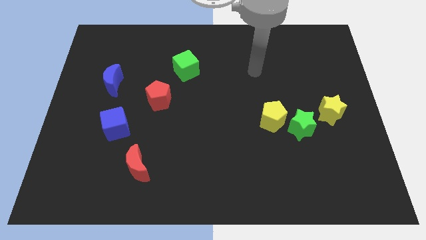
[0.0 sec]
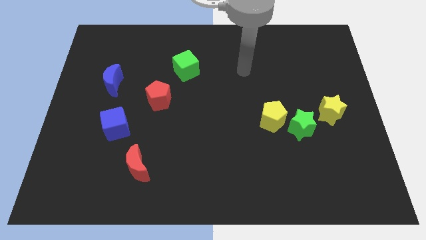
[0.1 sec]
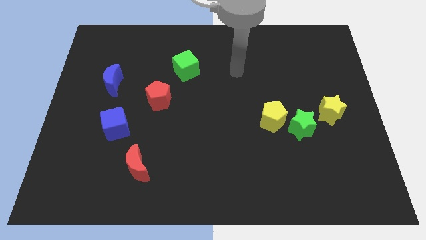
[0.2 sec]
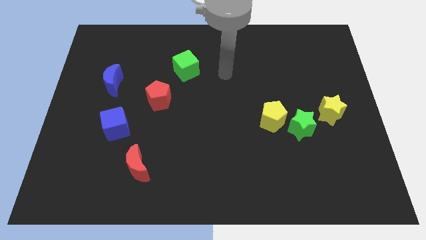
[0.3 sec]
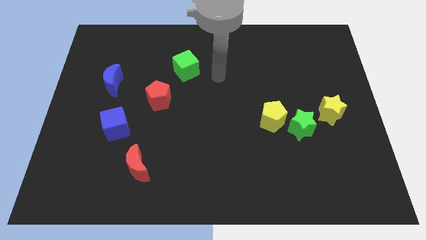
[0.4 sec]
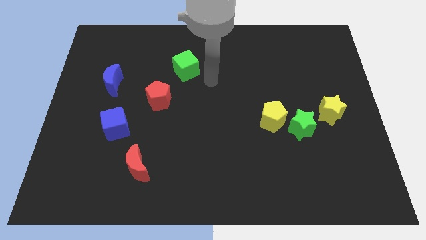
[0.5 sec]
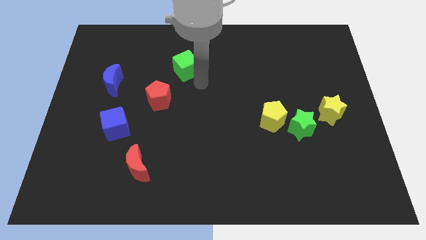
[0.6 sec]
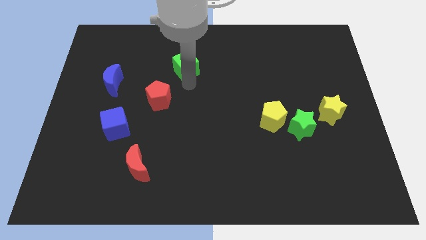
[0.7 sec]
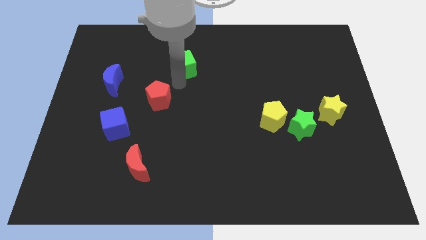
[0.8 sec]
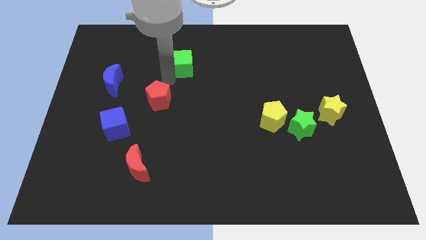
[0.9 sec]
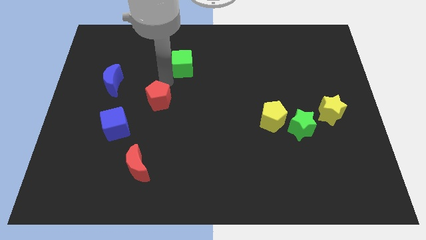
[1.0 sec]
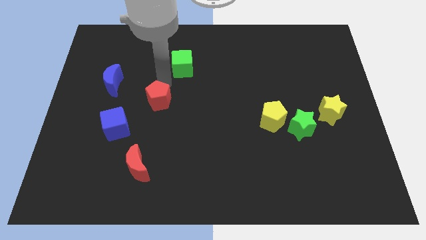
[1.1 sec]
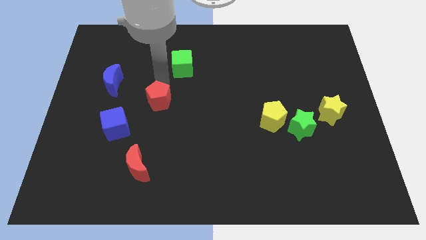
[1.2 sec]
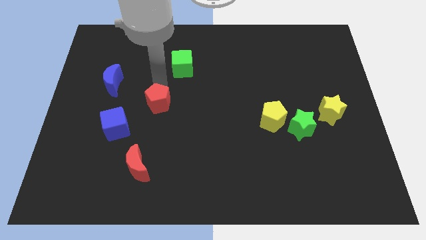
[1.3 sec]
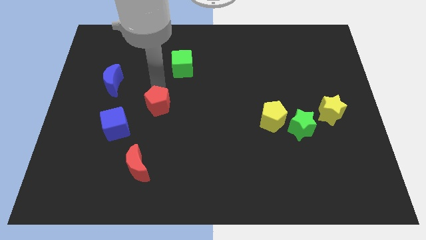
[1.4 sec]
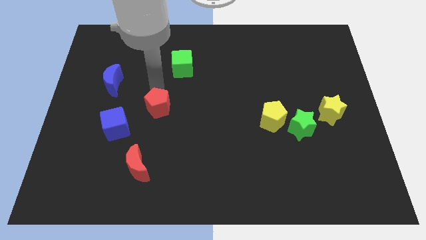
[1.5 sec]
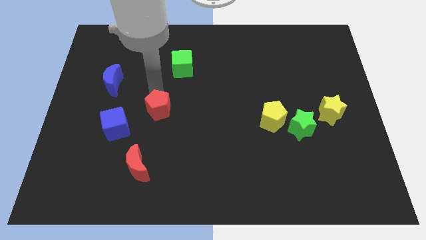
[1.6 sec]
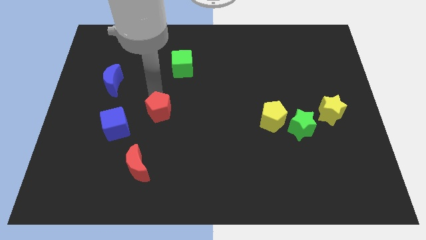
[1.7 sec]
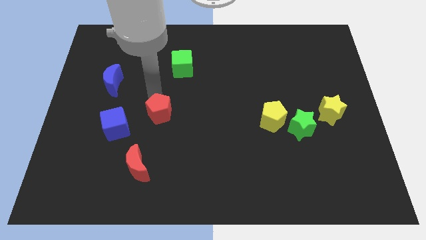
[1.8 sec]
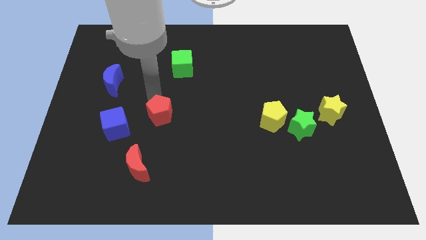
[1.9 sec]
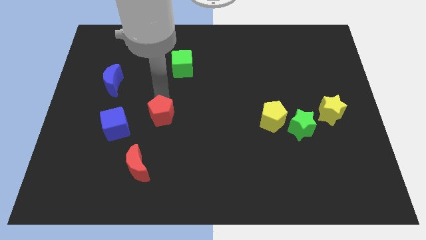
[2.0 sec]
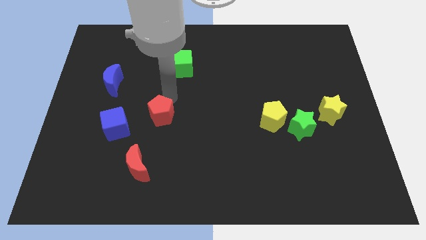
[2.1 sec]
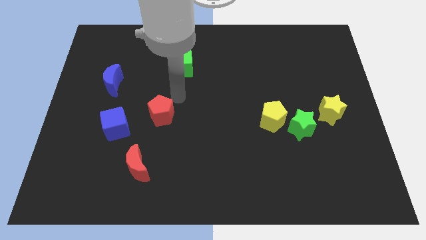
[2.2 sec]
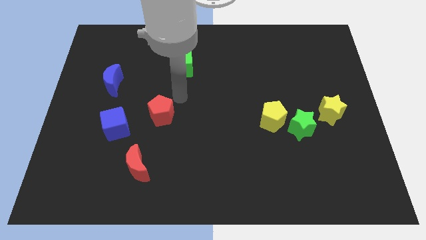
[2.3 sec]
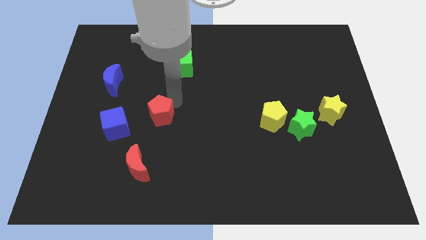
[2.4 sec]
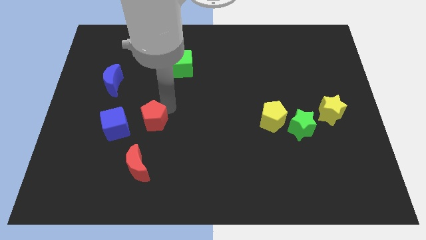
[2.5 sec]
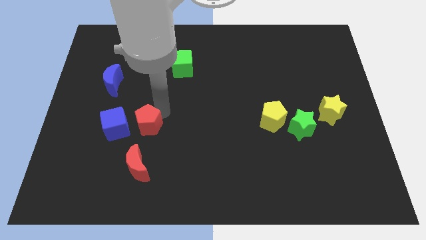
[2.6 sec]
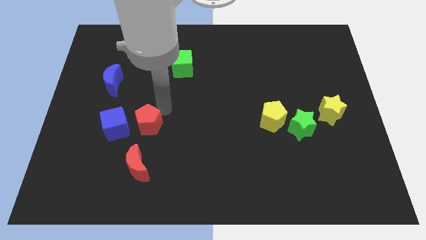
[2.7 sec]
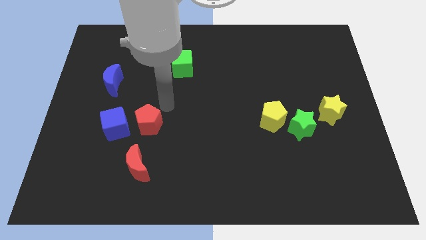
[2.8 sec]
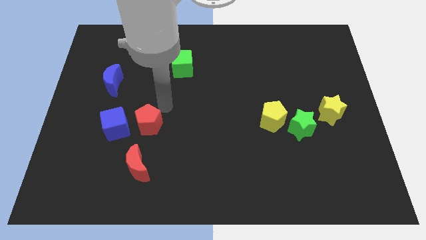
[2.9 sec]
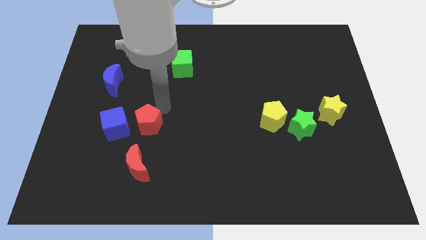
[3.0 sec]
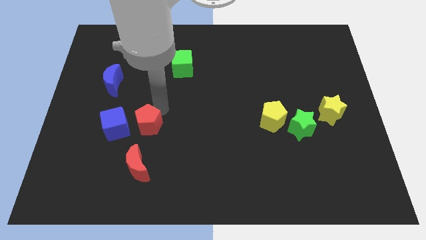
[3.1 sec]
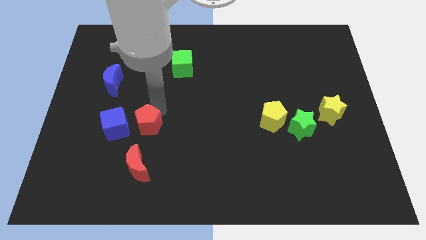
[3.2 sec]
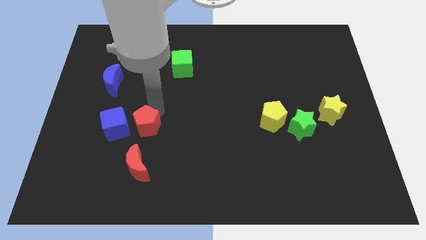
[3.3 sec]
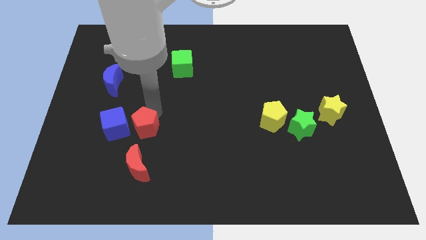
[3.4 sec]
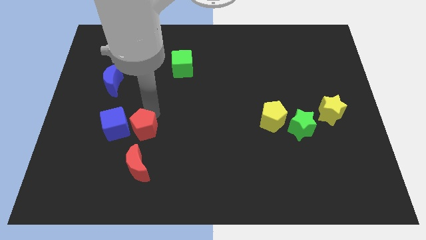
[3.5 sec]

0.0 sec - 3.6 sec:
push the red pentagon down and then left a little

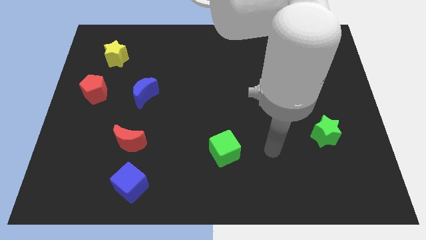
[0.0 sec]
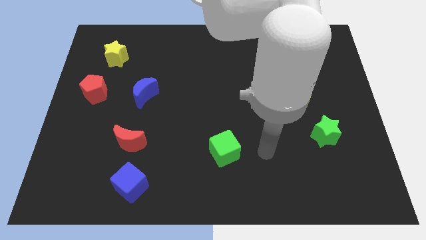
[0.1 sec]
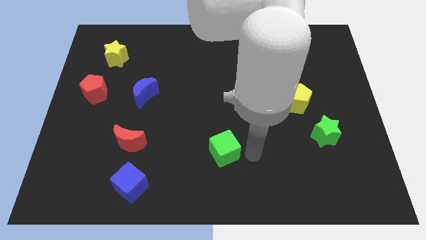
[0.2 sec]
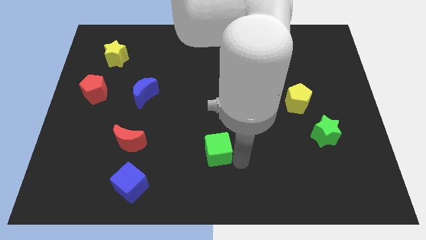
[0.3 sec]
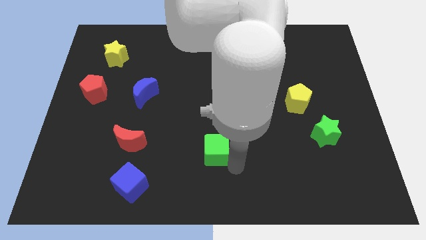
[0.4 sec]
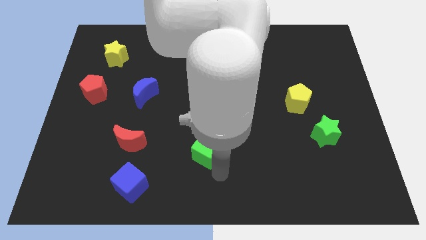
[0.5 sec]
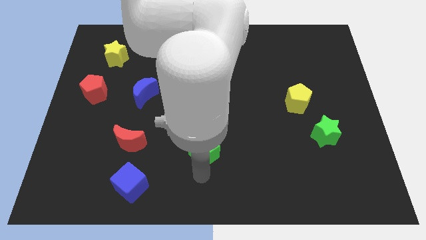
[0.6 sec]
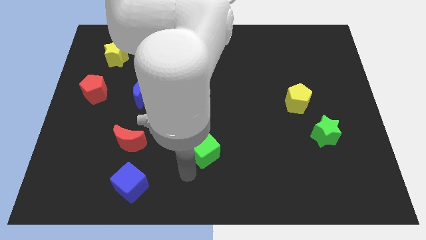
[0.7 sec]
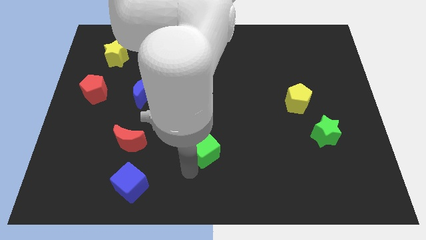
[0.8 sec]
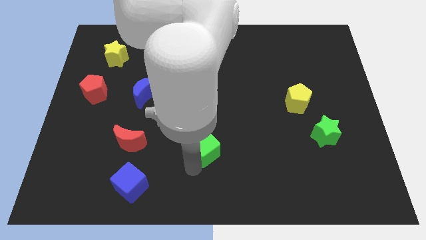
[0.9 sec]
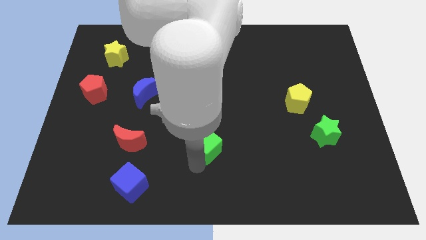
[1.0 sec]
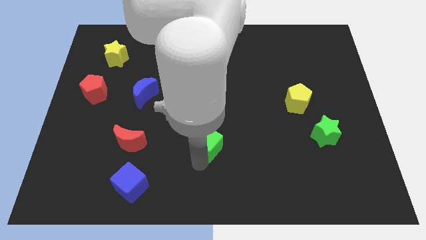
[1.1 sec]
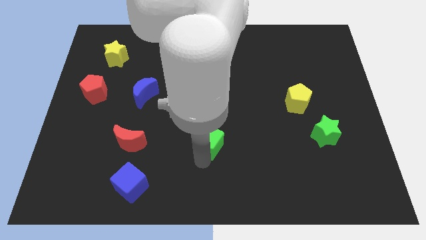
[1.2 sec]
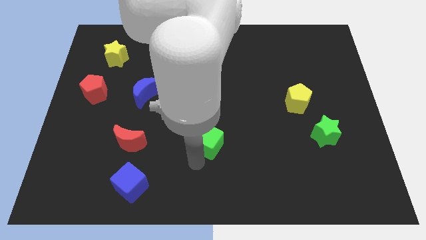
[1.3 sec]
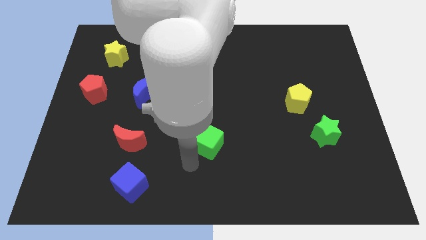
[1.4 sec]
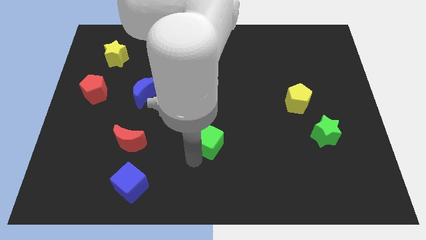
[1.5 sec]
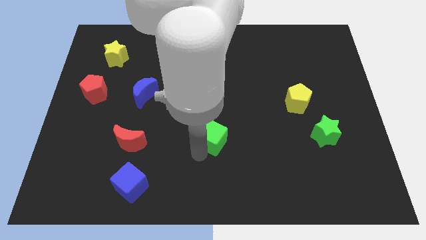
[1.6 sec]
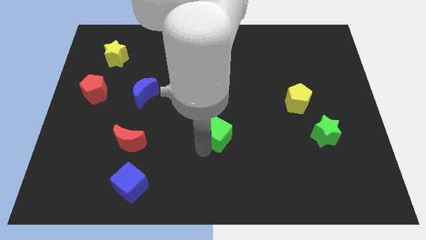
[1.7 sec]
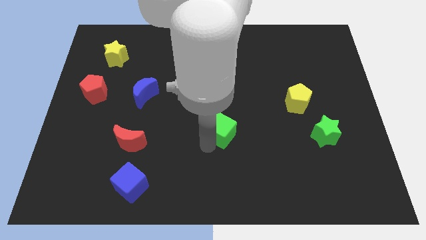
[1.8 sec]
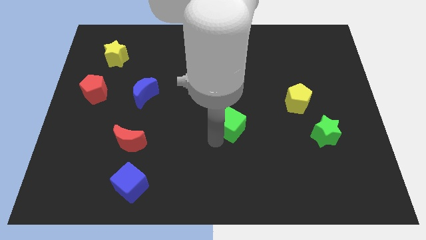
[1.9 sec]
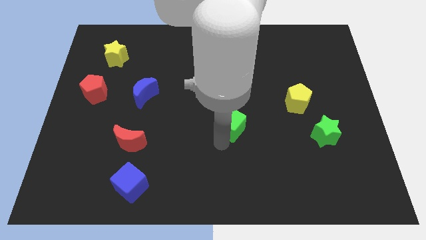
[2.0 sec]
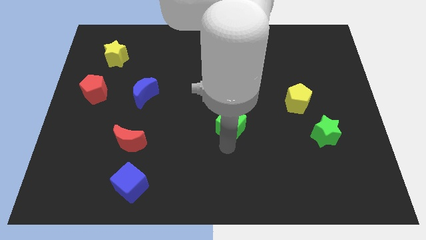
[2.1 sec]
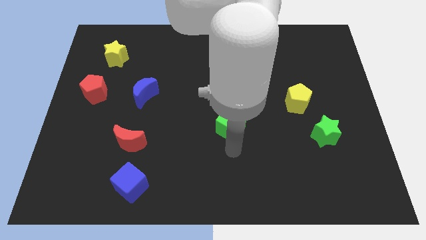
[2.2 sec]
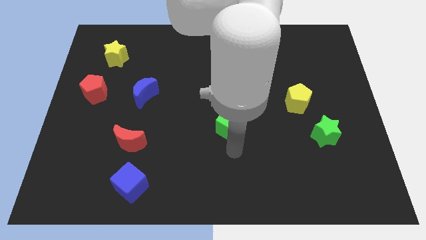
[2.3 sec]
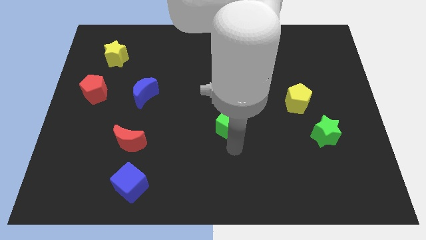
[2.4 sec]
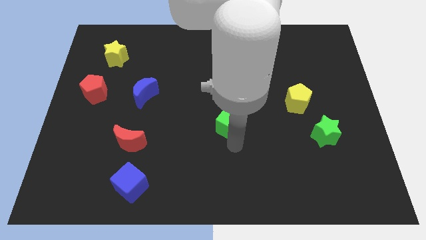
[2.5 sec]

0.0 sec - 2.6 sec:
slightly push the green cube up

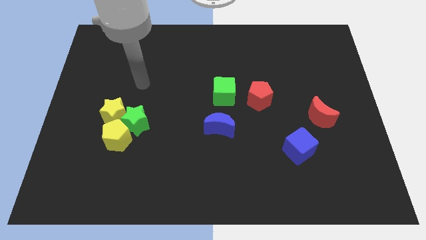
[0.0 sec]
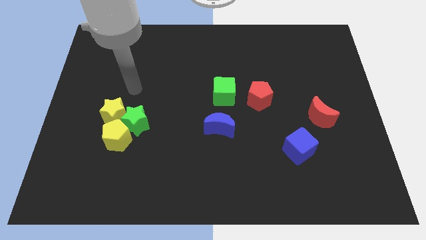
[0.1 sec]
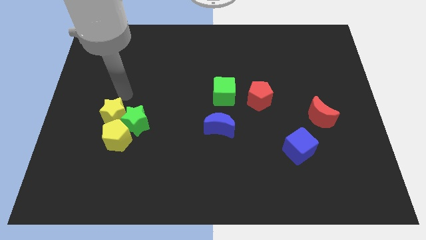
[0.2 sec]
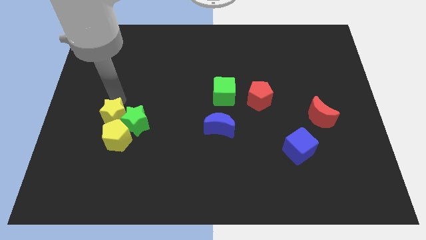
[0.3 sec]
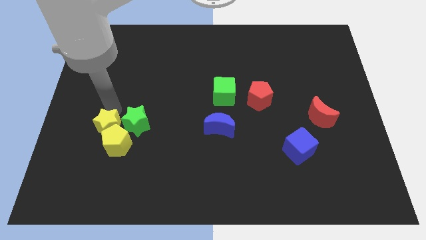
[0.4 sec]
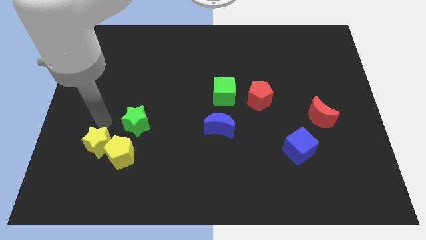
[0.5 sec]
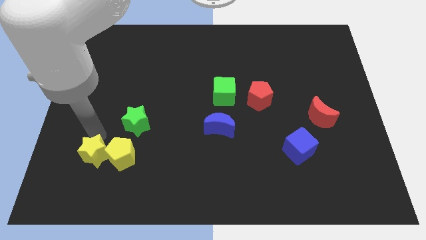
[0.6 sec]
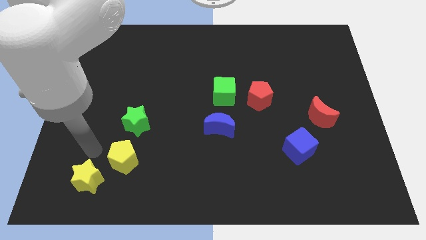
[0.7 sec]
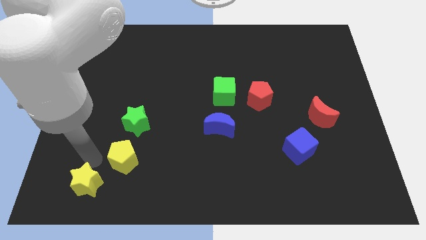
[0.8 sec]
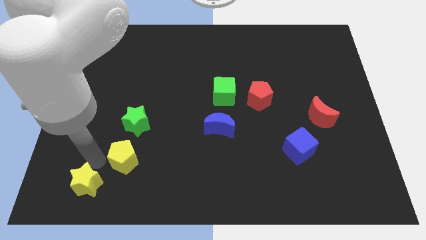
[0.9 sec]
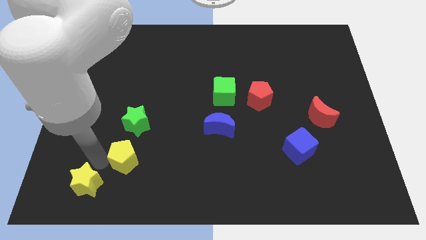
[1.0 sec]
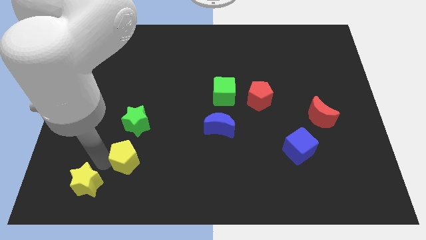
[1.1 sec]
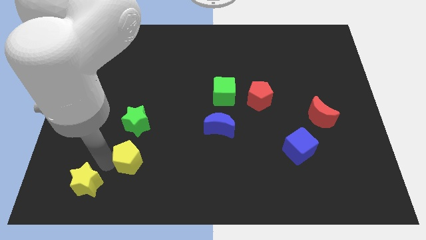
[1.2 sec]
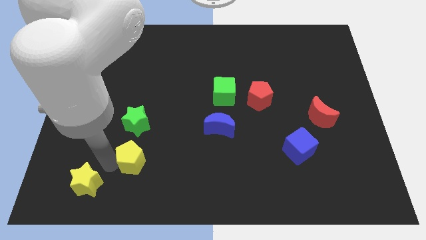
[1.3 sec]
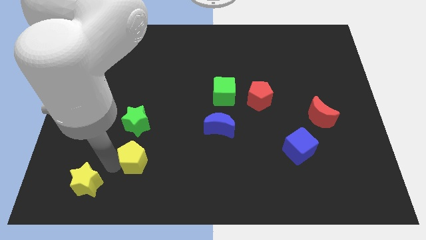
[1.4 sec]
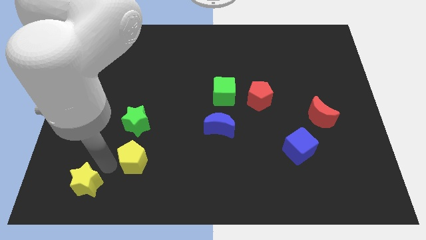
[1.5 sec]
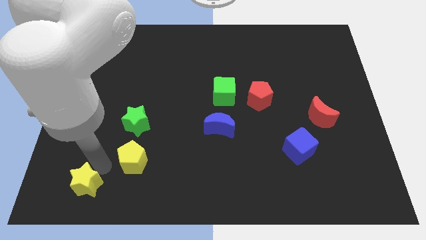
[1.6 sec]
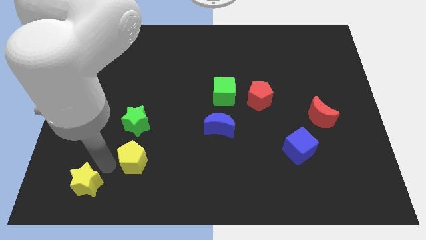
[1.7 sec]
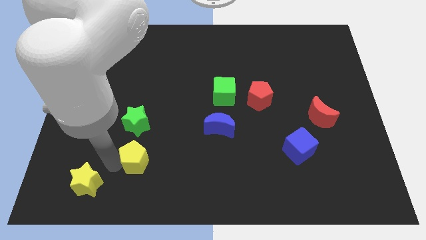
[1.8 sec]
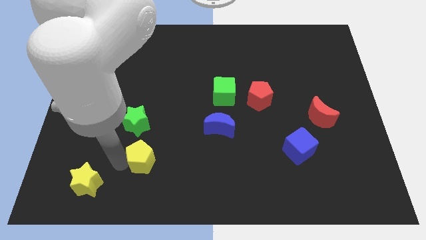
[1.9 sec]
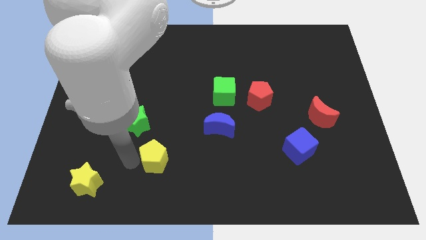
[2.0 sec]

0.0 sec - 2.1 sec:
slightly slide the yellow pentagon to the right

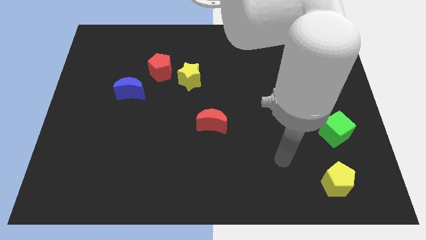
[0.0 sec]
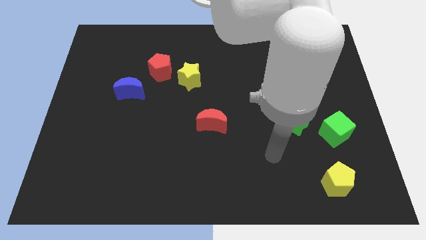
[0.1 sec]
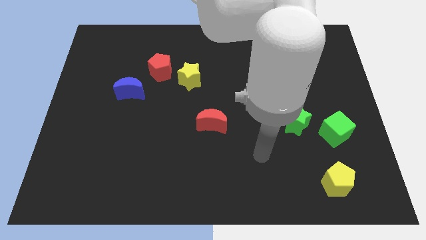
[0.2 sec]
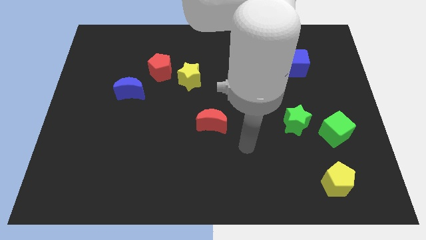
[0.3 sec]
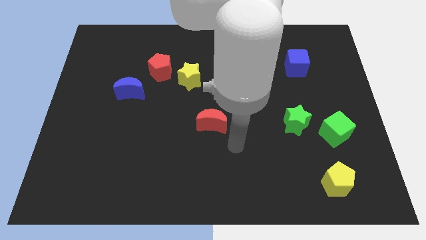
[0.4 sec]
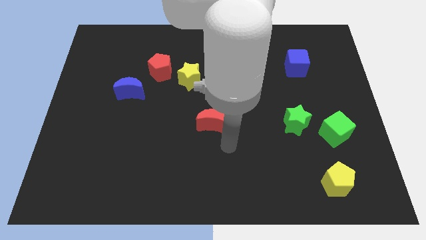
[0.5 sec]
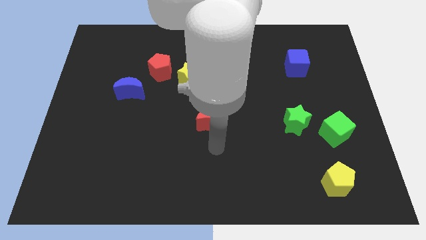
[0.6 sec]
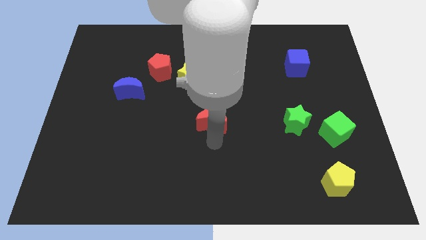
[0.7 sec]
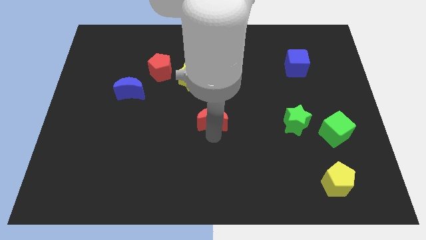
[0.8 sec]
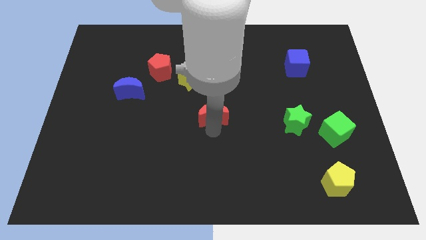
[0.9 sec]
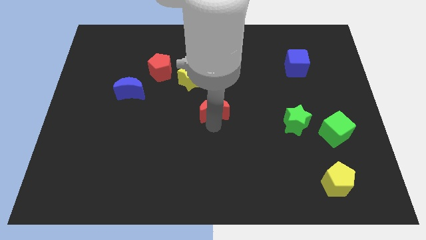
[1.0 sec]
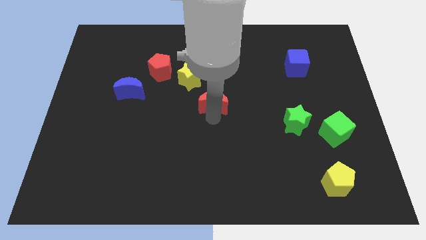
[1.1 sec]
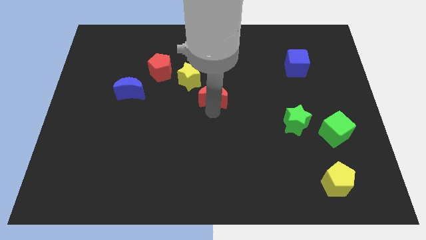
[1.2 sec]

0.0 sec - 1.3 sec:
slightly slide the red moon up
